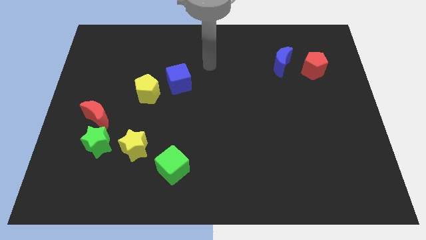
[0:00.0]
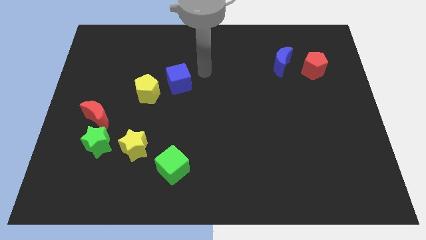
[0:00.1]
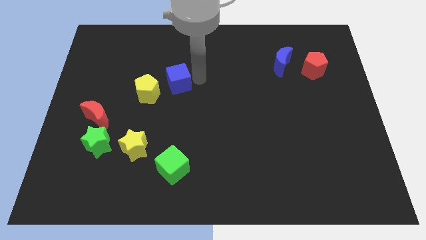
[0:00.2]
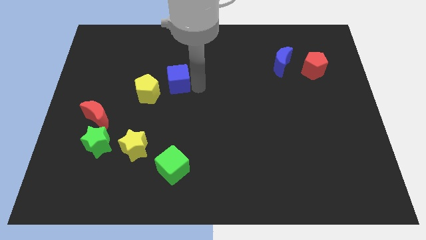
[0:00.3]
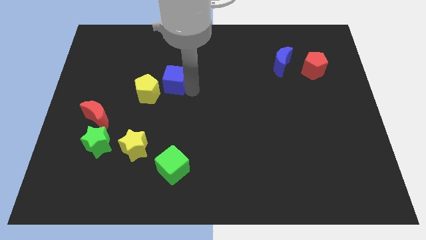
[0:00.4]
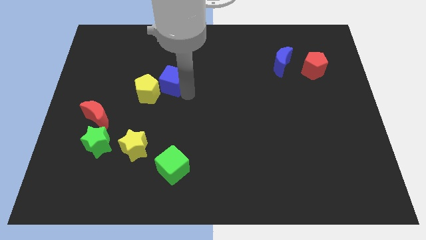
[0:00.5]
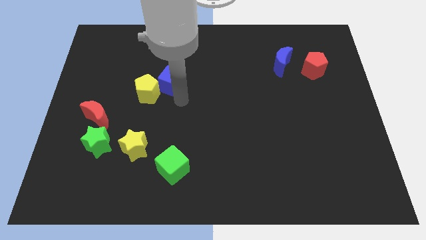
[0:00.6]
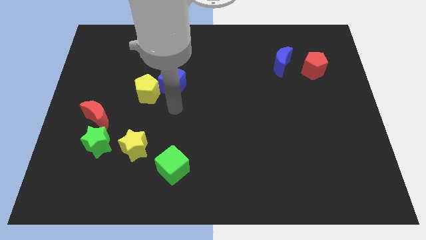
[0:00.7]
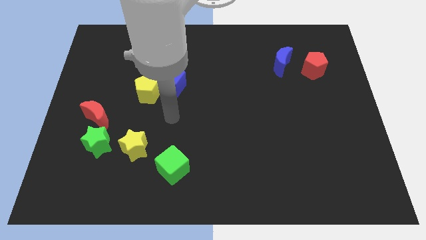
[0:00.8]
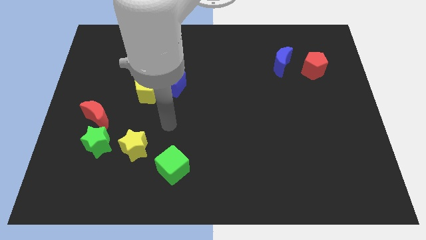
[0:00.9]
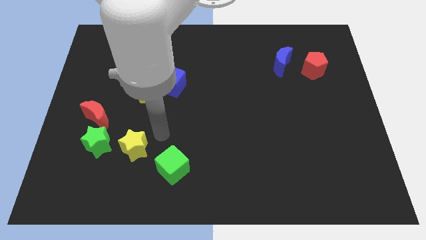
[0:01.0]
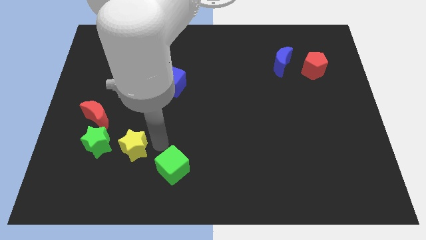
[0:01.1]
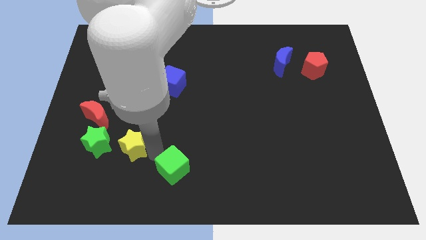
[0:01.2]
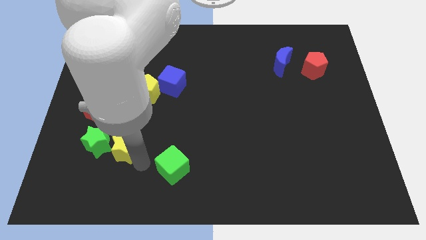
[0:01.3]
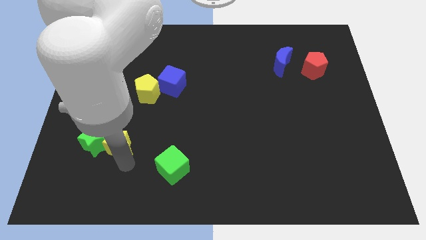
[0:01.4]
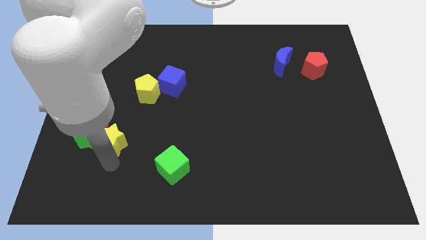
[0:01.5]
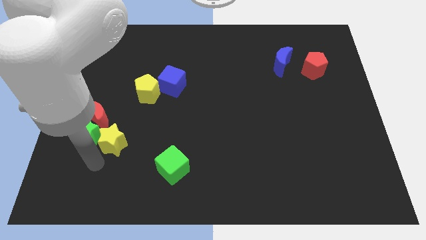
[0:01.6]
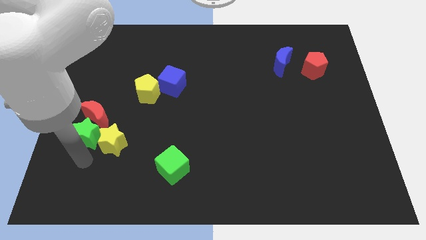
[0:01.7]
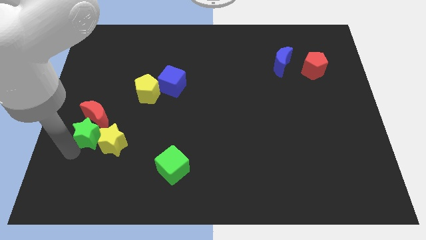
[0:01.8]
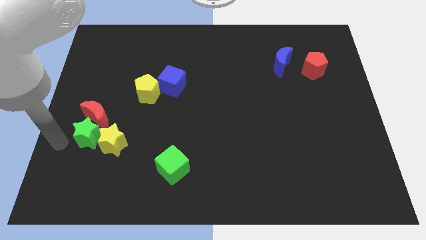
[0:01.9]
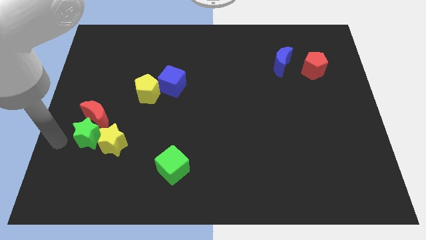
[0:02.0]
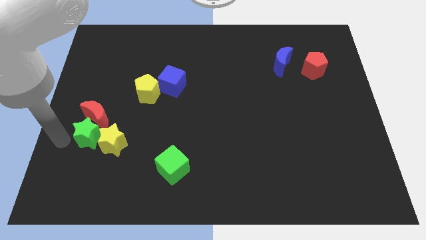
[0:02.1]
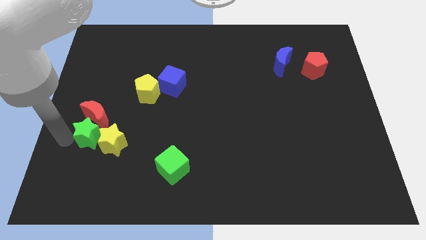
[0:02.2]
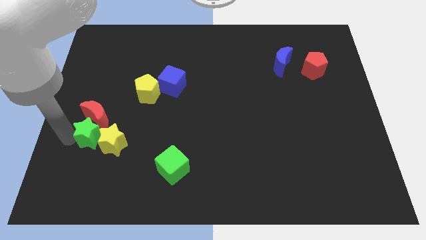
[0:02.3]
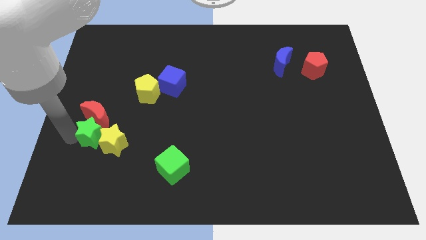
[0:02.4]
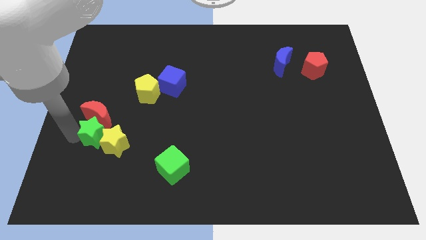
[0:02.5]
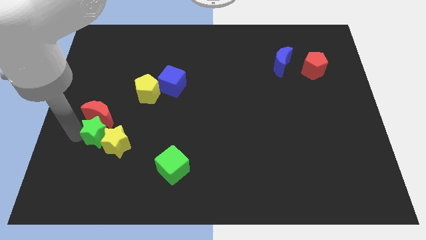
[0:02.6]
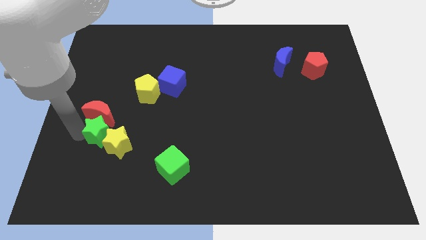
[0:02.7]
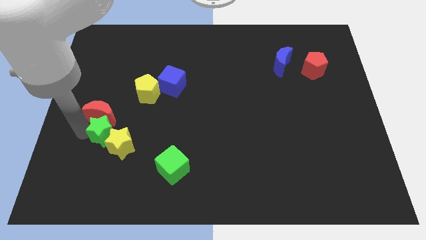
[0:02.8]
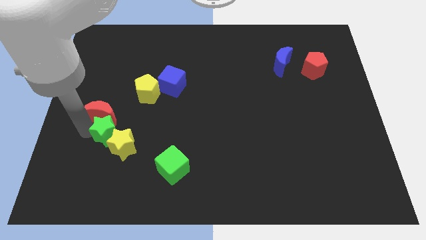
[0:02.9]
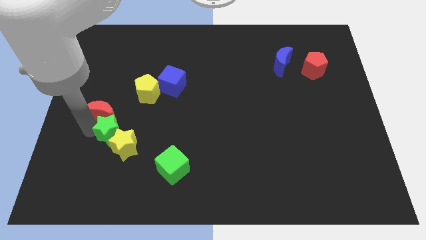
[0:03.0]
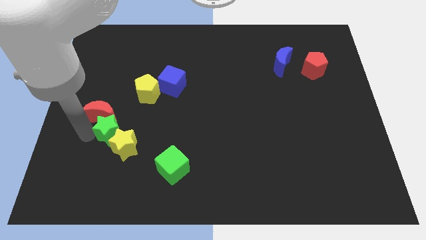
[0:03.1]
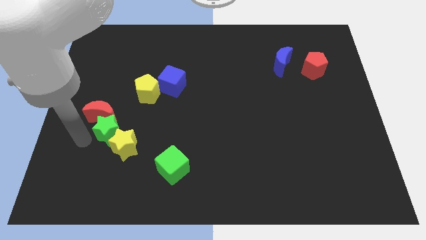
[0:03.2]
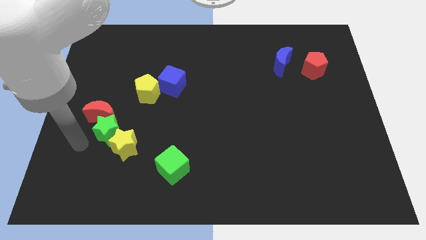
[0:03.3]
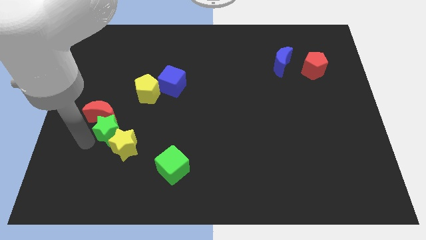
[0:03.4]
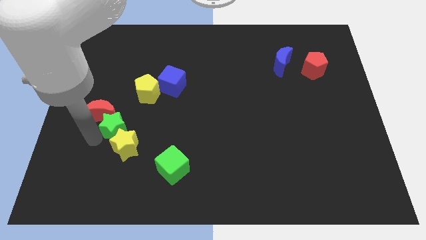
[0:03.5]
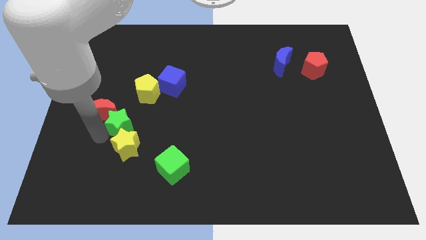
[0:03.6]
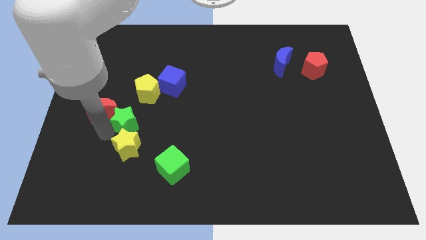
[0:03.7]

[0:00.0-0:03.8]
push the green star slightly diagonally up and right

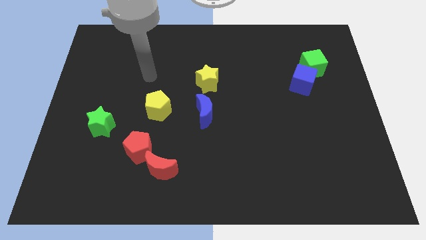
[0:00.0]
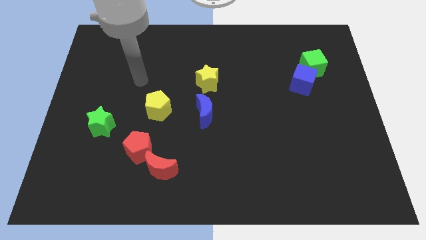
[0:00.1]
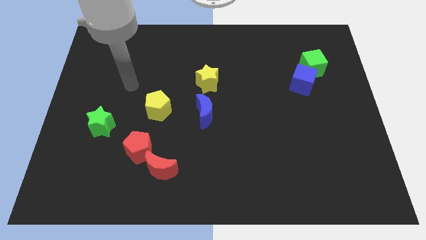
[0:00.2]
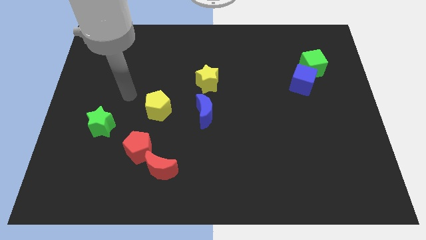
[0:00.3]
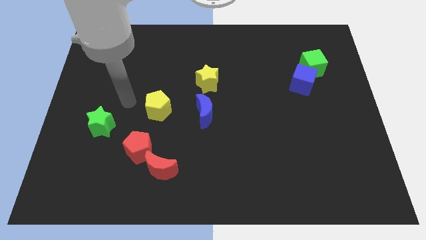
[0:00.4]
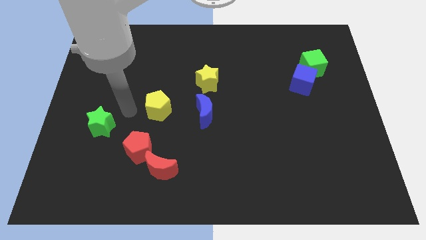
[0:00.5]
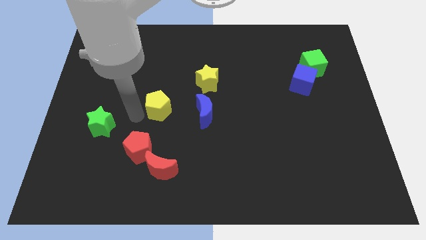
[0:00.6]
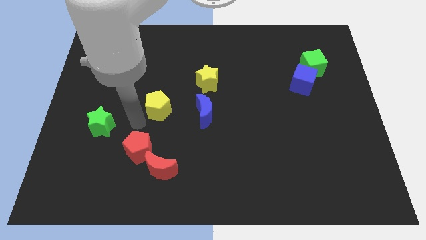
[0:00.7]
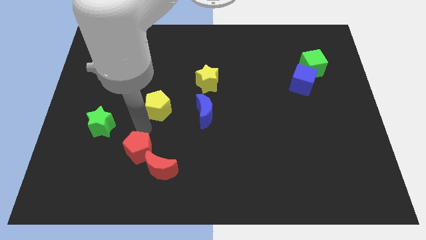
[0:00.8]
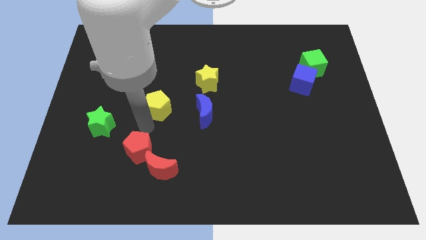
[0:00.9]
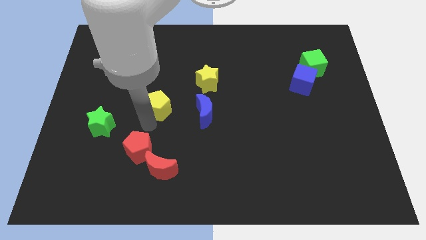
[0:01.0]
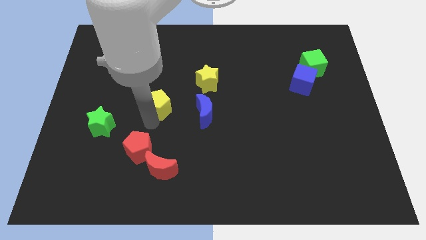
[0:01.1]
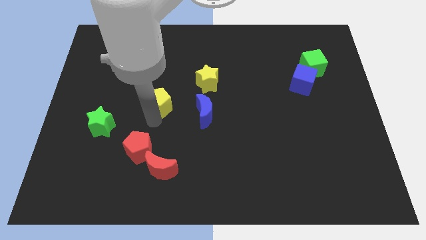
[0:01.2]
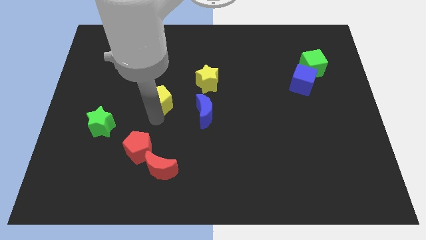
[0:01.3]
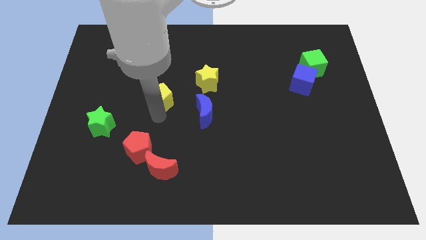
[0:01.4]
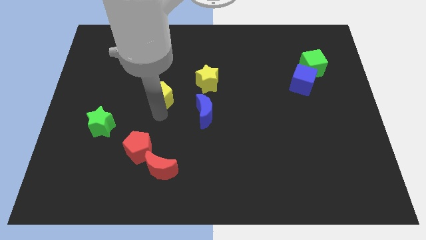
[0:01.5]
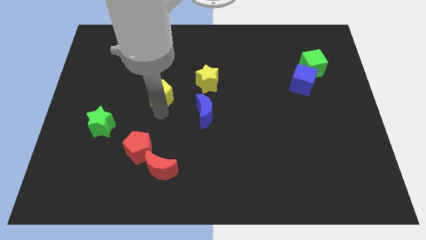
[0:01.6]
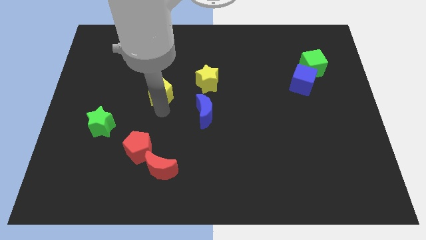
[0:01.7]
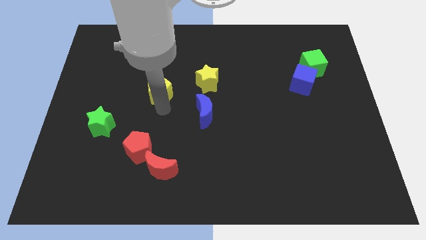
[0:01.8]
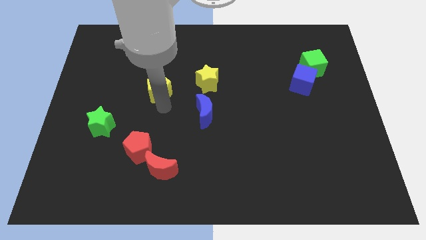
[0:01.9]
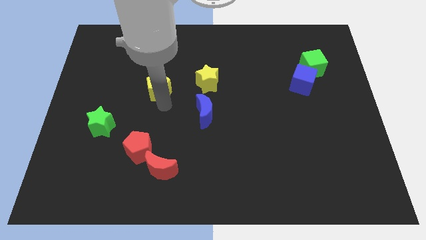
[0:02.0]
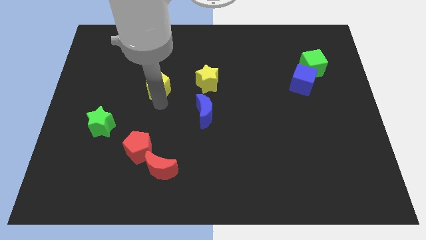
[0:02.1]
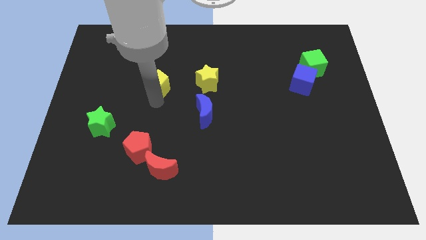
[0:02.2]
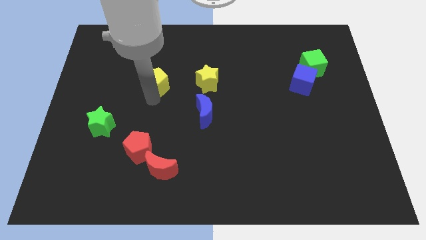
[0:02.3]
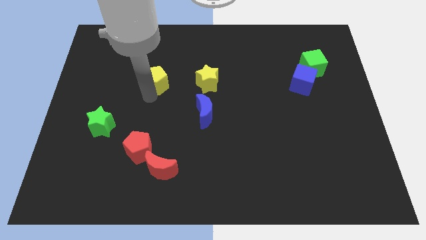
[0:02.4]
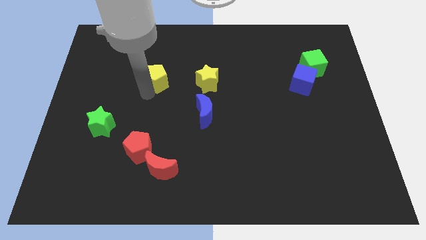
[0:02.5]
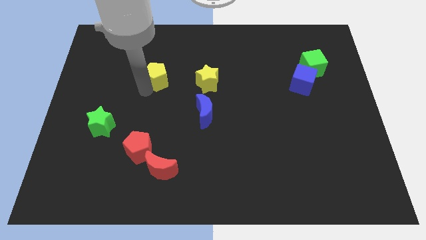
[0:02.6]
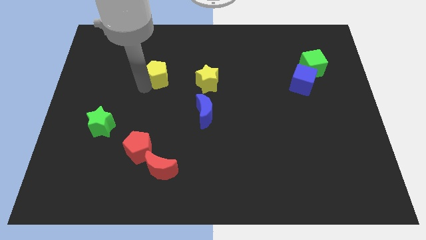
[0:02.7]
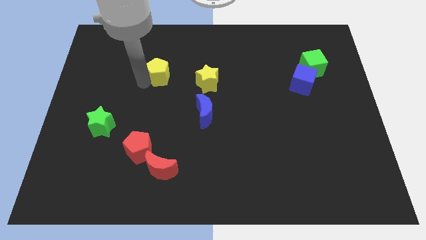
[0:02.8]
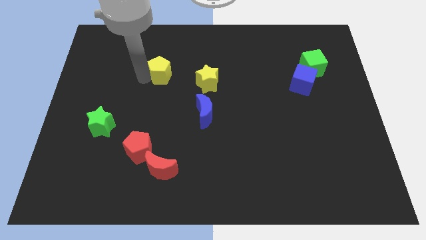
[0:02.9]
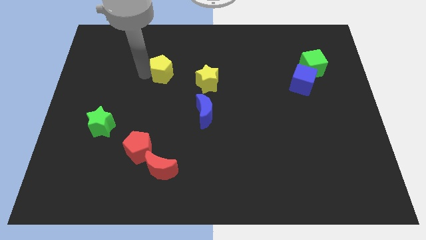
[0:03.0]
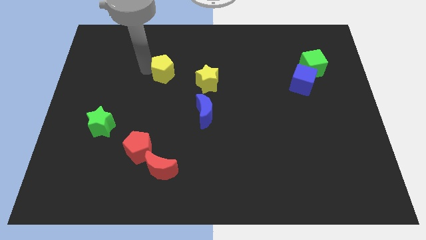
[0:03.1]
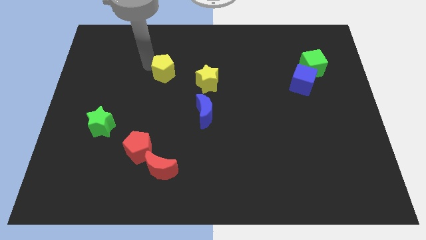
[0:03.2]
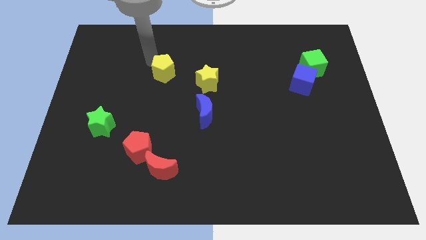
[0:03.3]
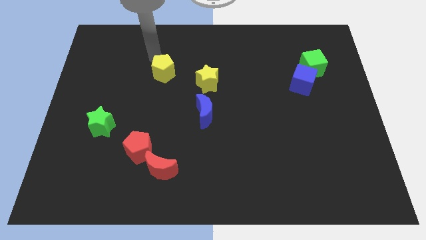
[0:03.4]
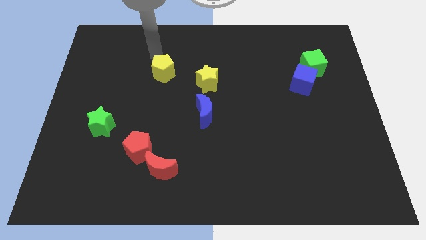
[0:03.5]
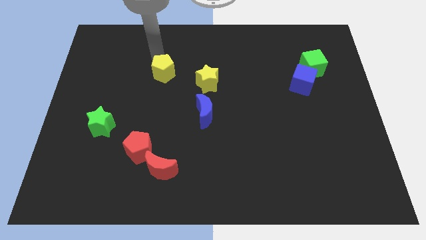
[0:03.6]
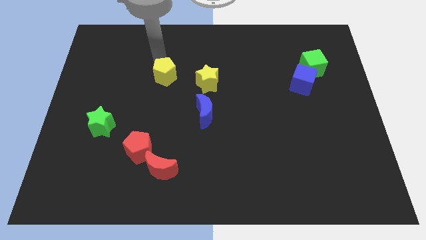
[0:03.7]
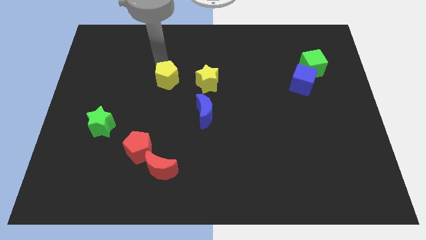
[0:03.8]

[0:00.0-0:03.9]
slightly slide the yellow pentagon up and to the right diagonally

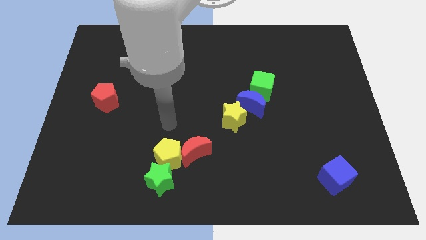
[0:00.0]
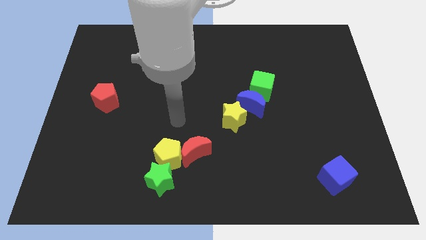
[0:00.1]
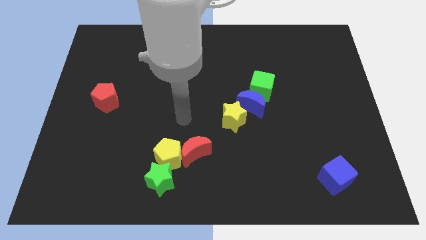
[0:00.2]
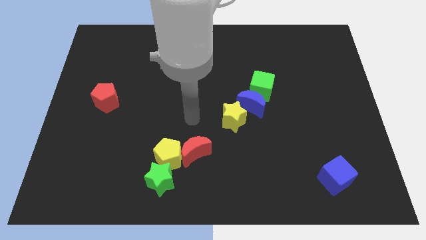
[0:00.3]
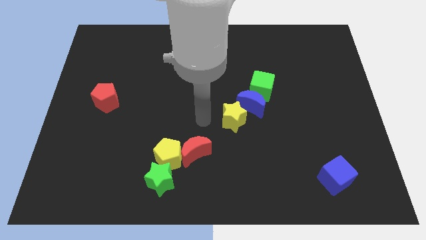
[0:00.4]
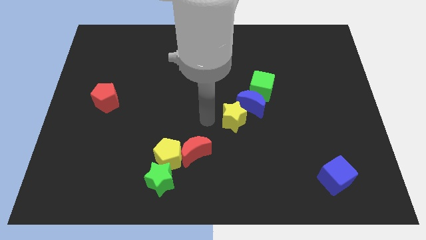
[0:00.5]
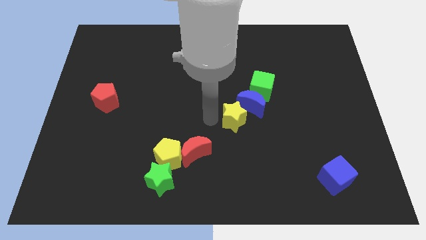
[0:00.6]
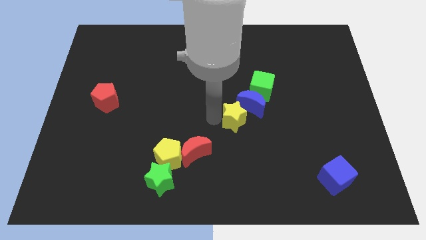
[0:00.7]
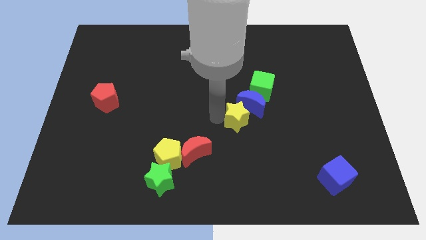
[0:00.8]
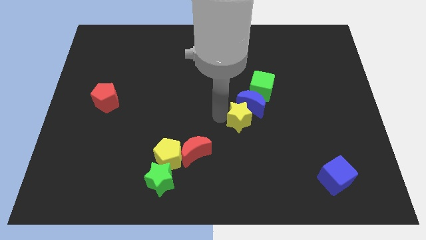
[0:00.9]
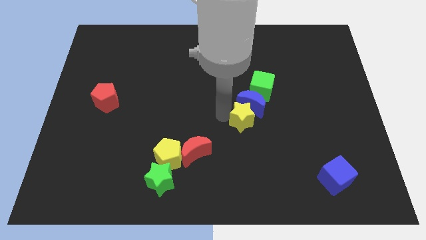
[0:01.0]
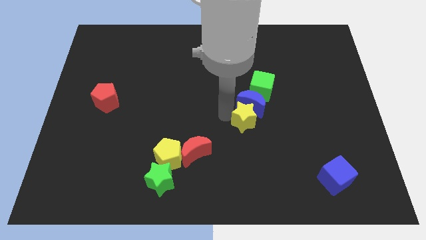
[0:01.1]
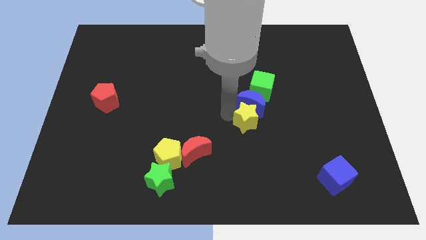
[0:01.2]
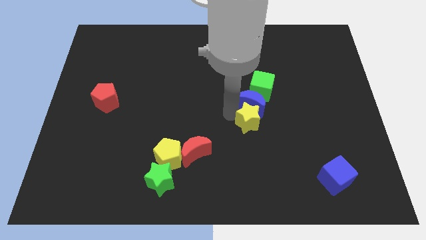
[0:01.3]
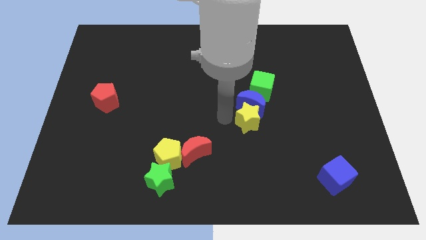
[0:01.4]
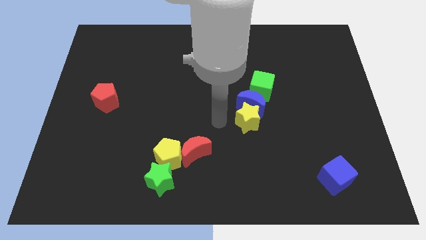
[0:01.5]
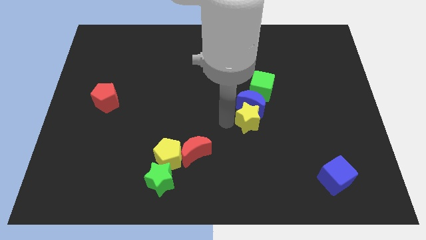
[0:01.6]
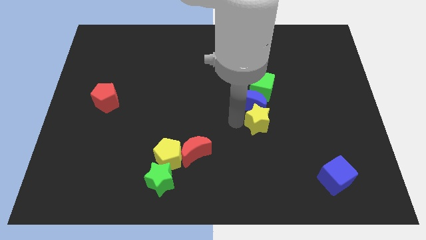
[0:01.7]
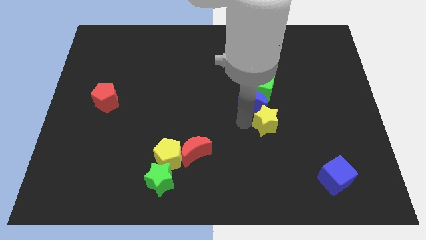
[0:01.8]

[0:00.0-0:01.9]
slightly move the yellow star to the right
